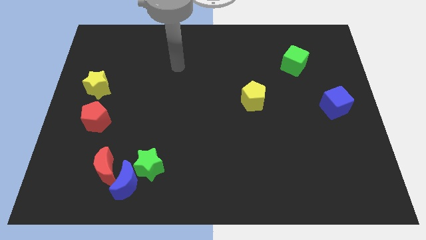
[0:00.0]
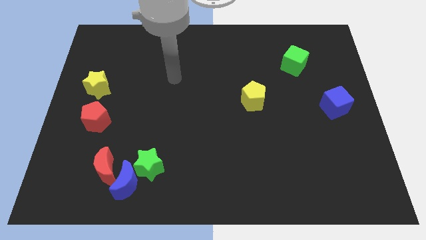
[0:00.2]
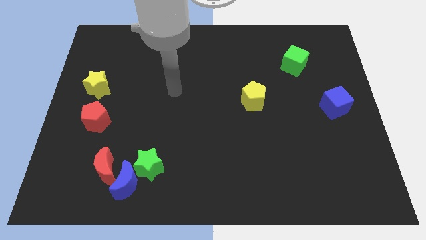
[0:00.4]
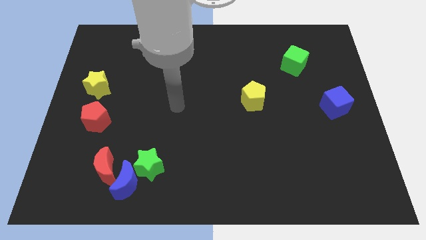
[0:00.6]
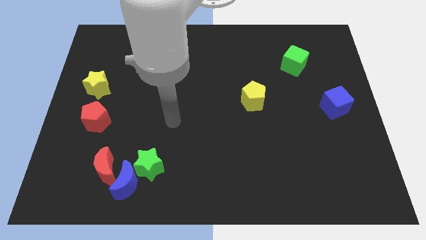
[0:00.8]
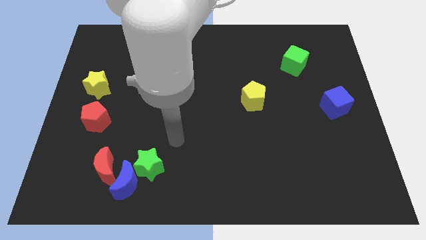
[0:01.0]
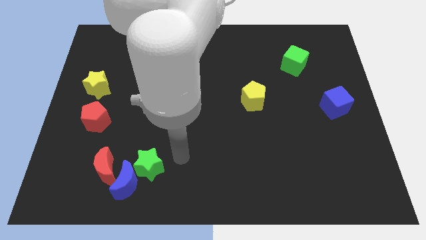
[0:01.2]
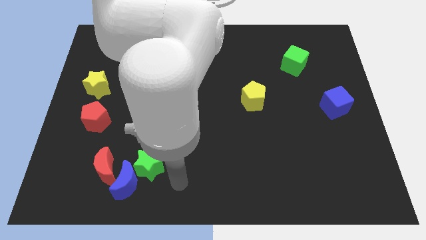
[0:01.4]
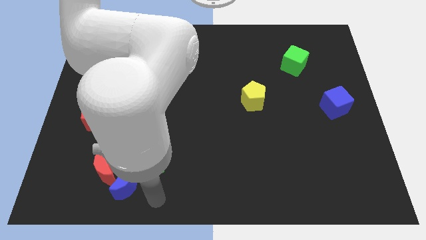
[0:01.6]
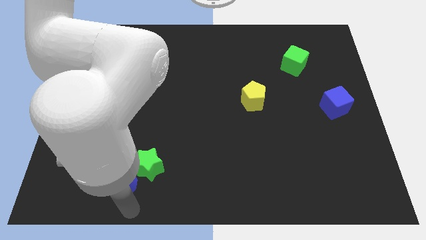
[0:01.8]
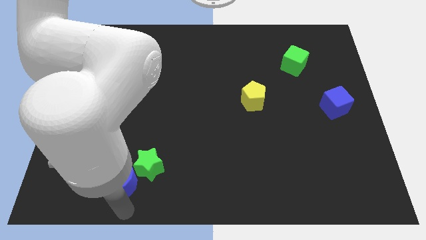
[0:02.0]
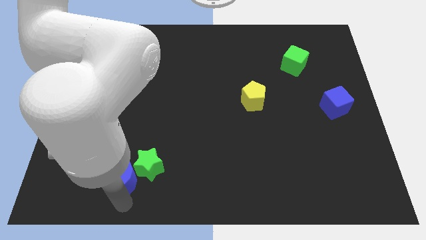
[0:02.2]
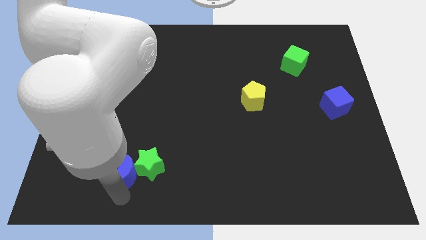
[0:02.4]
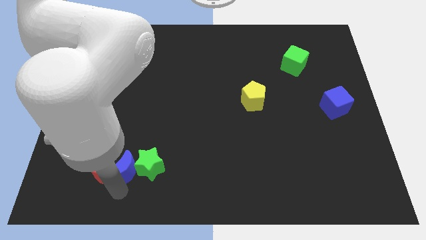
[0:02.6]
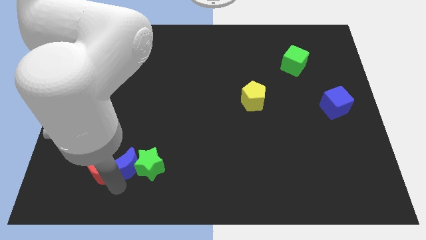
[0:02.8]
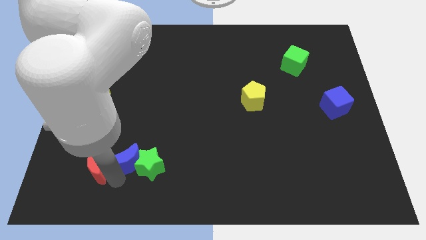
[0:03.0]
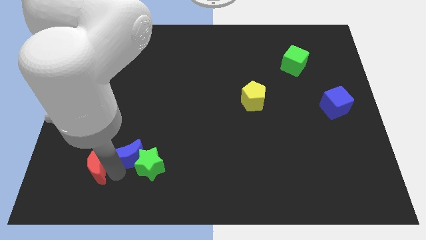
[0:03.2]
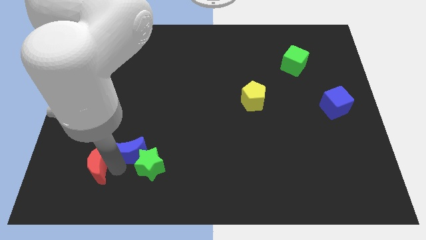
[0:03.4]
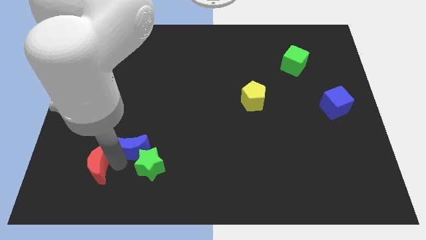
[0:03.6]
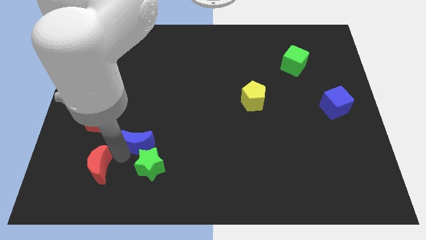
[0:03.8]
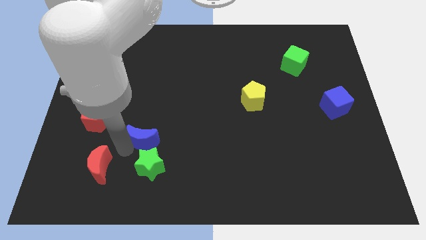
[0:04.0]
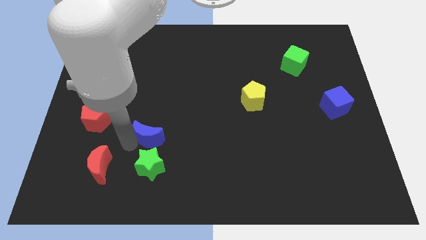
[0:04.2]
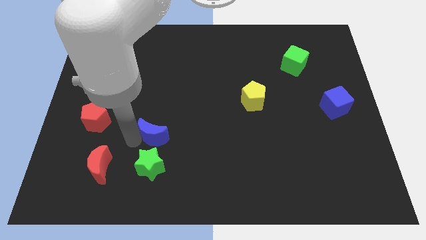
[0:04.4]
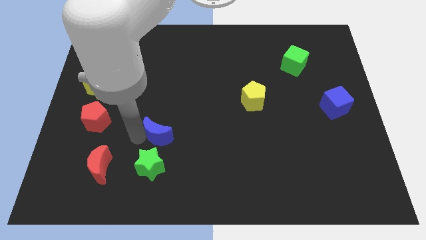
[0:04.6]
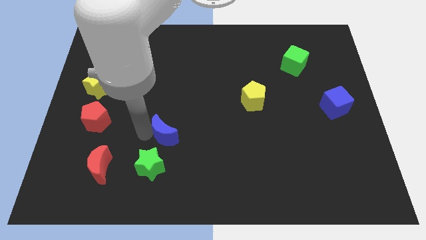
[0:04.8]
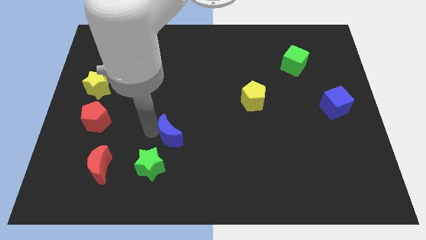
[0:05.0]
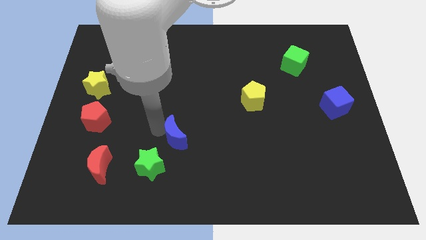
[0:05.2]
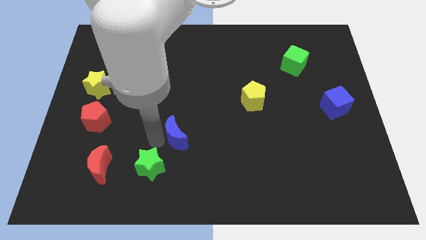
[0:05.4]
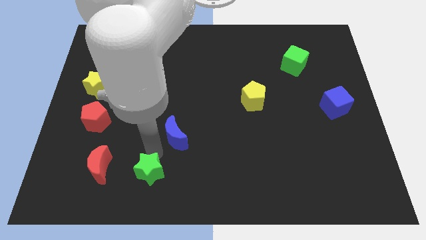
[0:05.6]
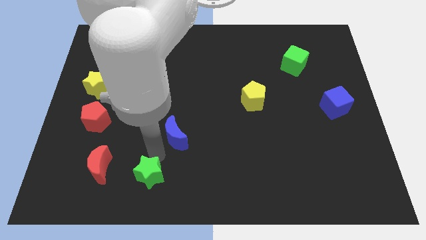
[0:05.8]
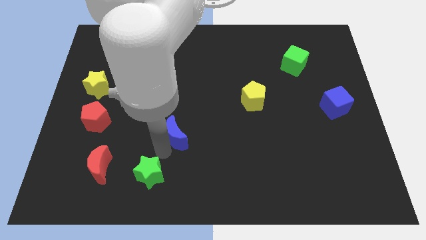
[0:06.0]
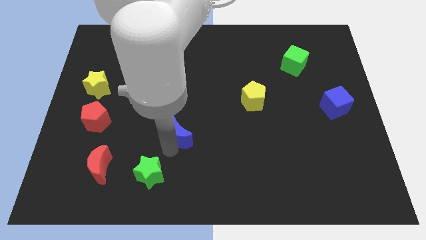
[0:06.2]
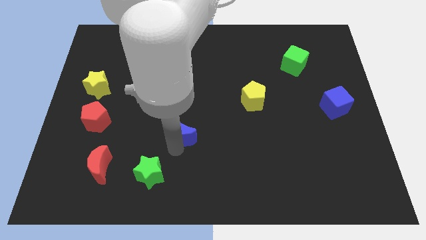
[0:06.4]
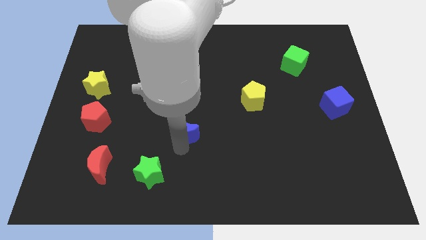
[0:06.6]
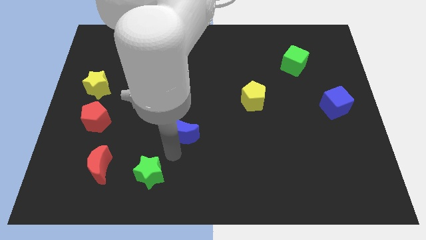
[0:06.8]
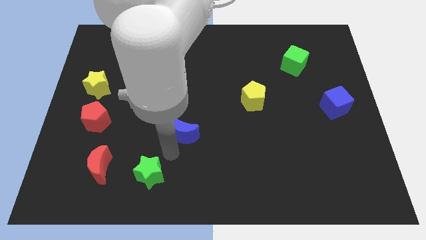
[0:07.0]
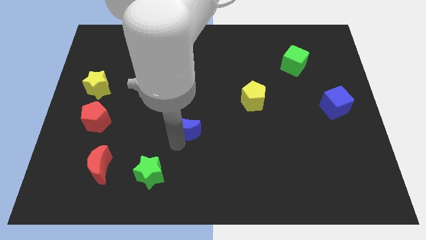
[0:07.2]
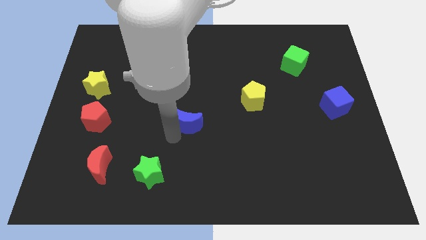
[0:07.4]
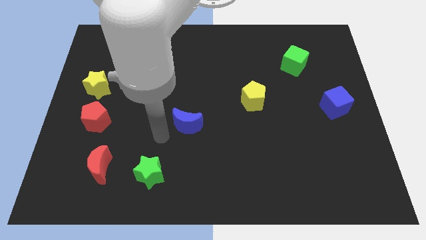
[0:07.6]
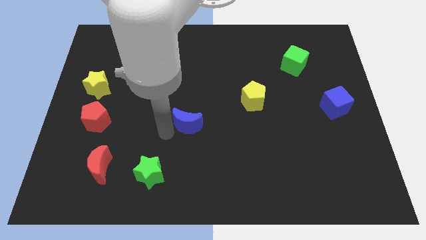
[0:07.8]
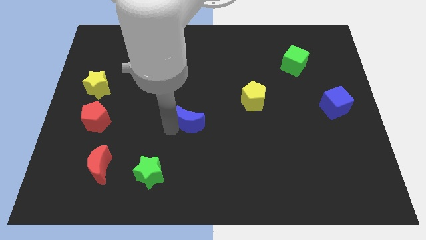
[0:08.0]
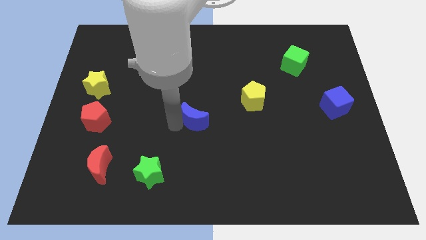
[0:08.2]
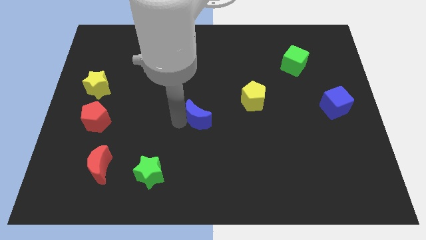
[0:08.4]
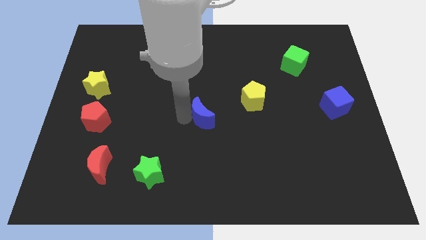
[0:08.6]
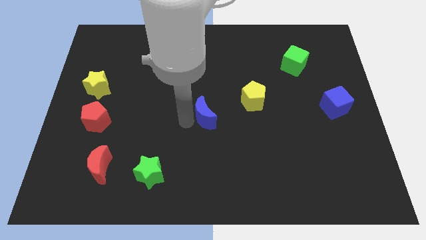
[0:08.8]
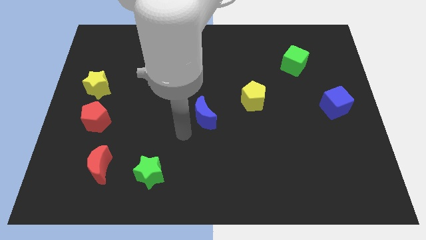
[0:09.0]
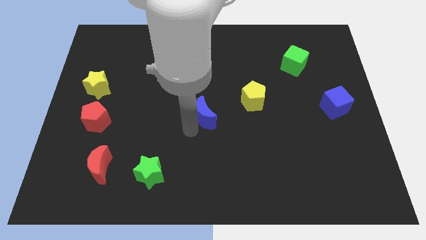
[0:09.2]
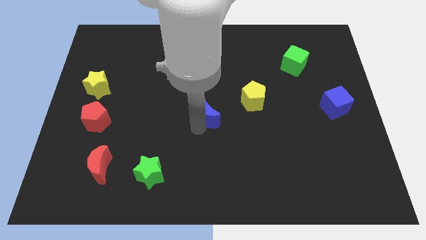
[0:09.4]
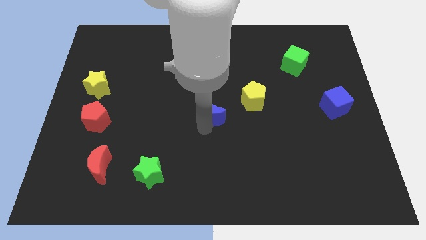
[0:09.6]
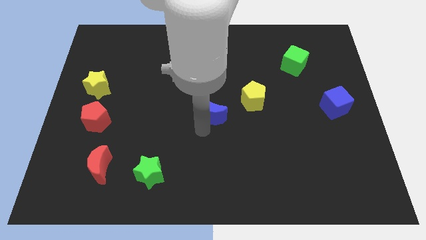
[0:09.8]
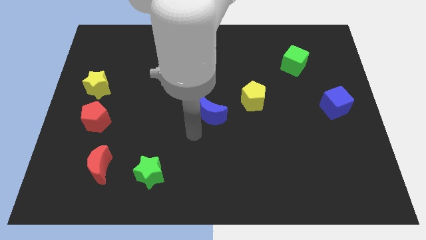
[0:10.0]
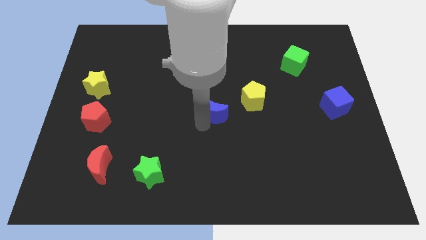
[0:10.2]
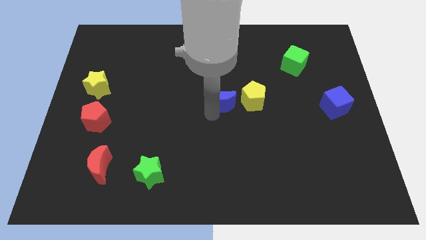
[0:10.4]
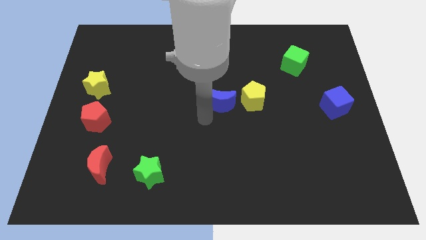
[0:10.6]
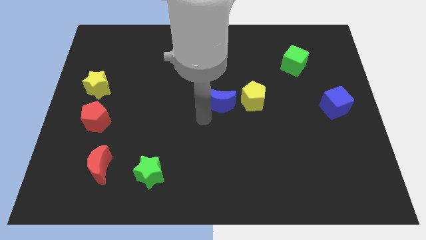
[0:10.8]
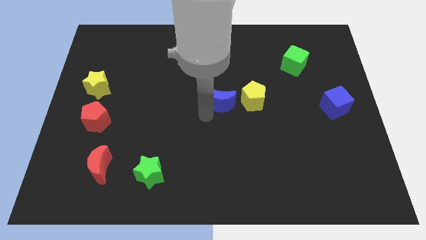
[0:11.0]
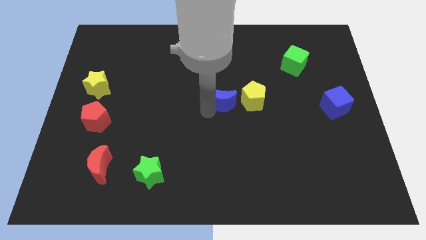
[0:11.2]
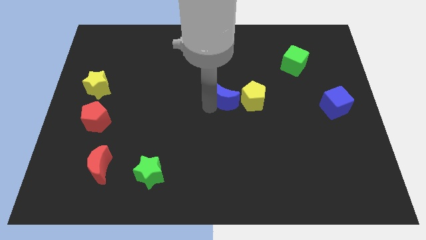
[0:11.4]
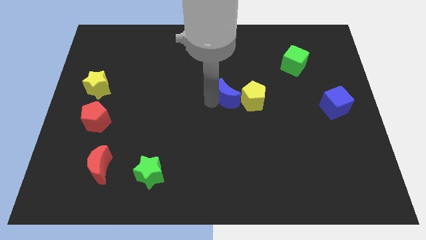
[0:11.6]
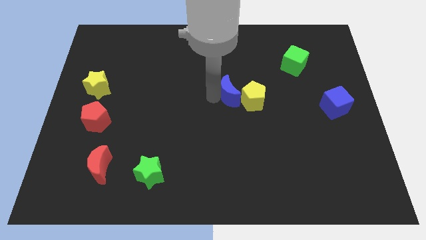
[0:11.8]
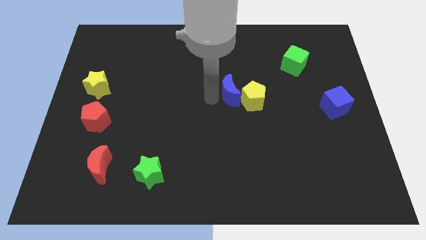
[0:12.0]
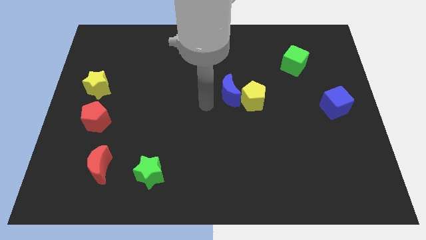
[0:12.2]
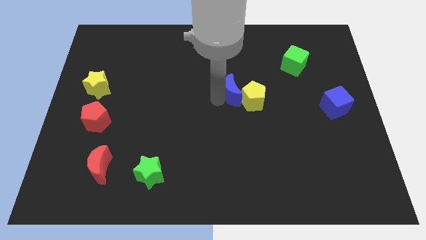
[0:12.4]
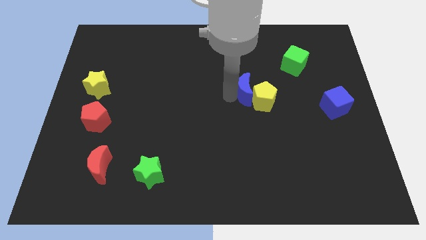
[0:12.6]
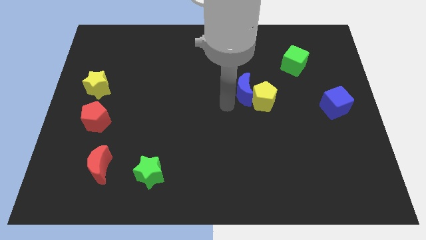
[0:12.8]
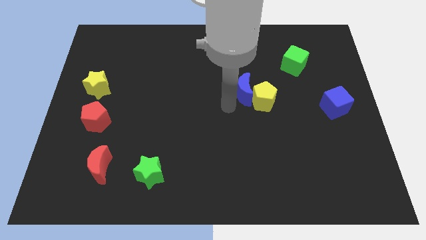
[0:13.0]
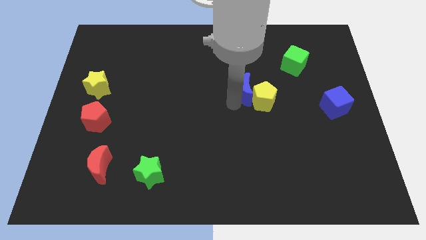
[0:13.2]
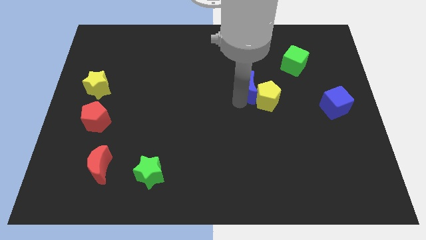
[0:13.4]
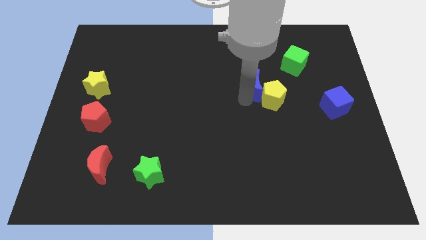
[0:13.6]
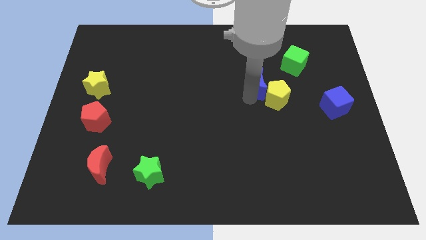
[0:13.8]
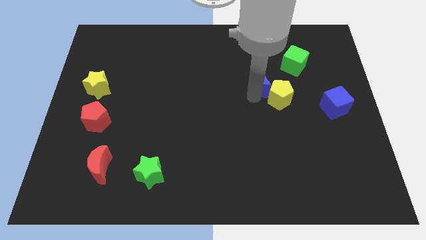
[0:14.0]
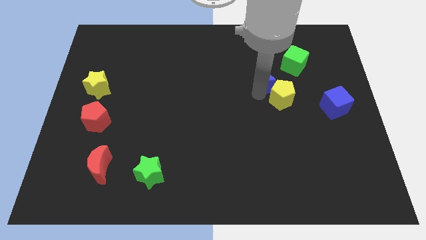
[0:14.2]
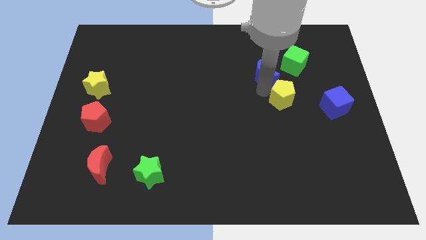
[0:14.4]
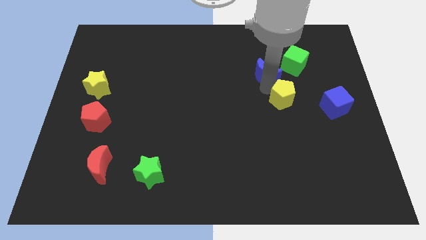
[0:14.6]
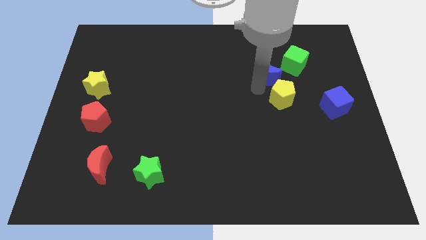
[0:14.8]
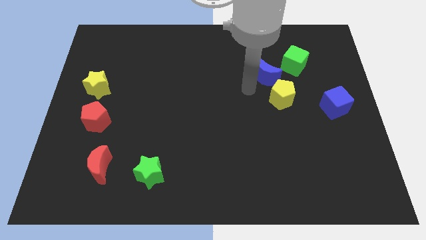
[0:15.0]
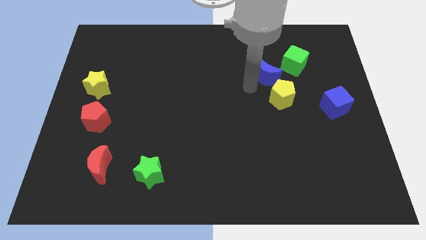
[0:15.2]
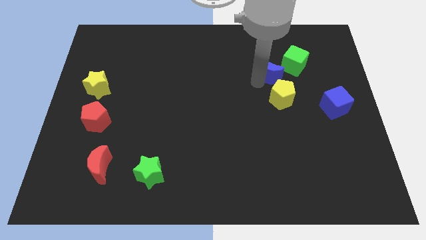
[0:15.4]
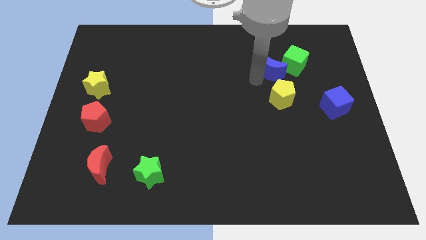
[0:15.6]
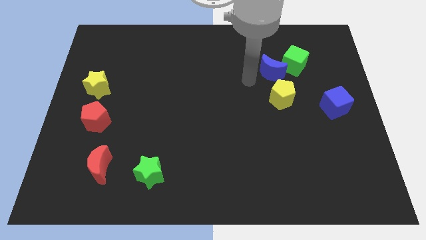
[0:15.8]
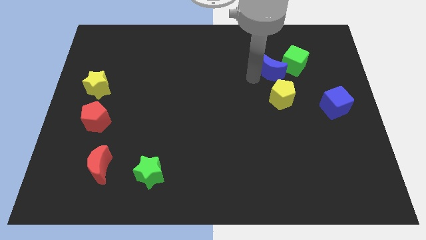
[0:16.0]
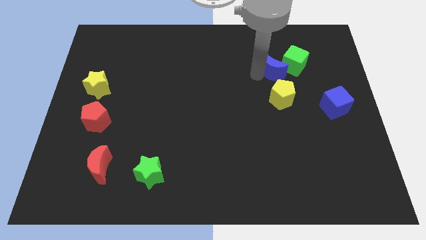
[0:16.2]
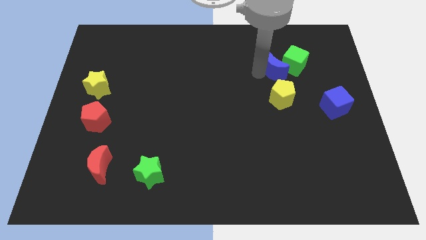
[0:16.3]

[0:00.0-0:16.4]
move the blue moon towards the green cube
